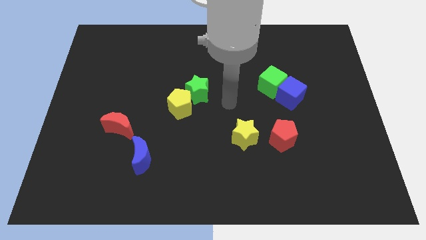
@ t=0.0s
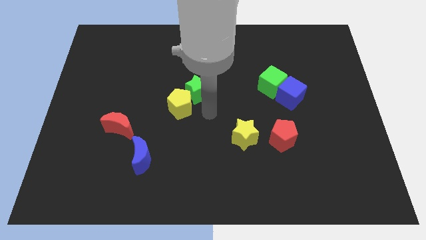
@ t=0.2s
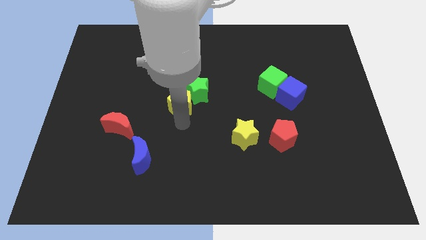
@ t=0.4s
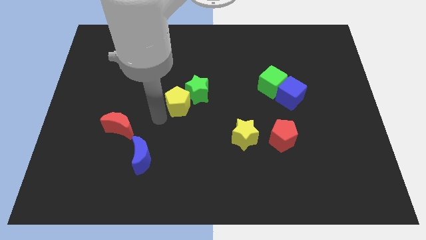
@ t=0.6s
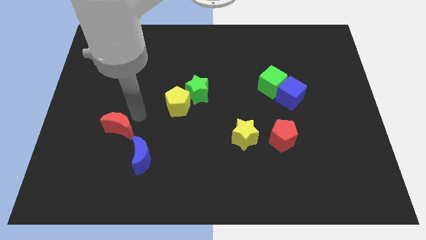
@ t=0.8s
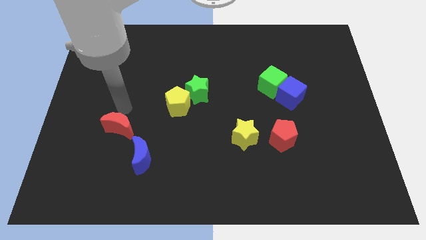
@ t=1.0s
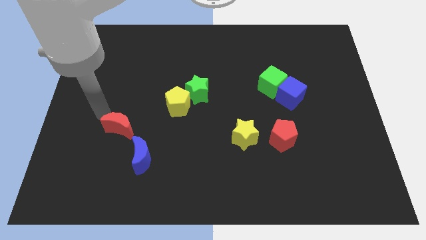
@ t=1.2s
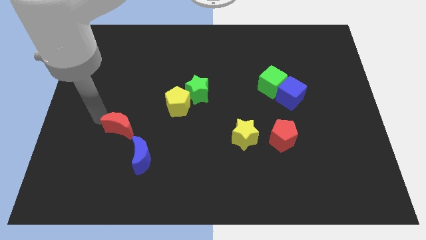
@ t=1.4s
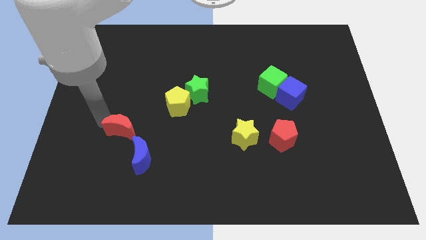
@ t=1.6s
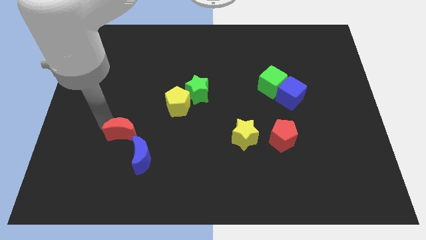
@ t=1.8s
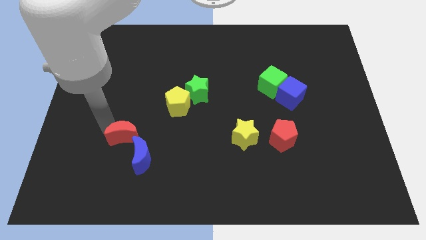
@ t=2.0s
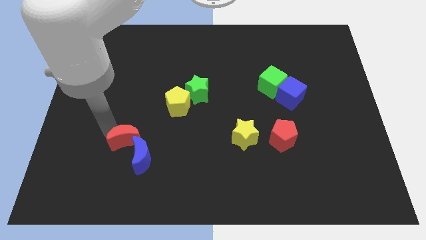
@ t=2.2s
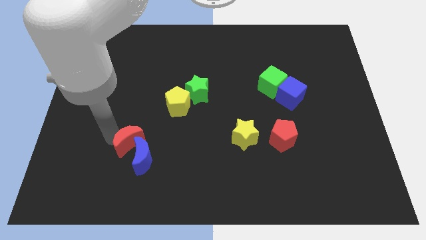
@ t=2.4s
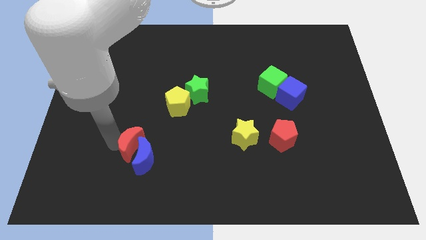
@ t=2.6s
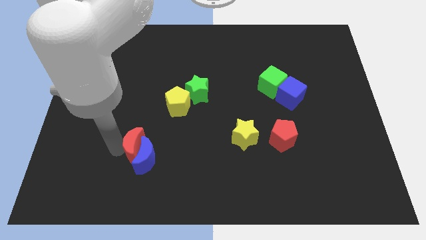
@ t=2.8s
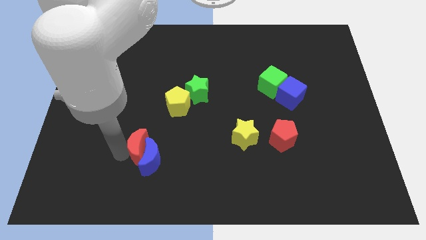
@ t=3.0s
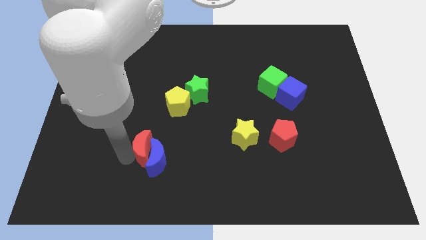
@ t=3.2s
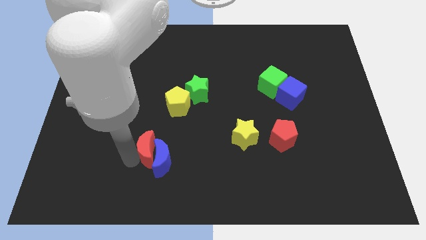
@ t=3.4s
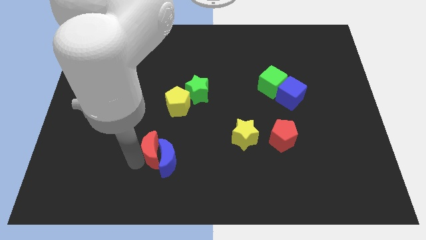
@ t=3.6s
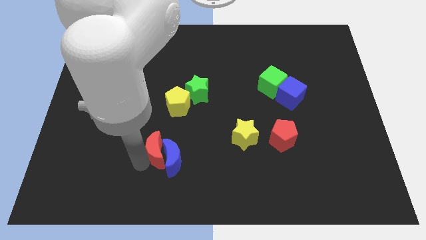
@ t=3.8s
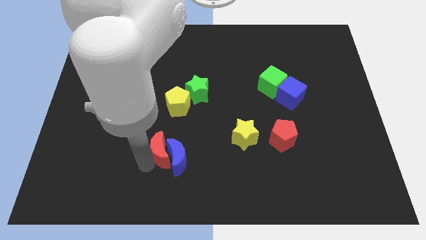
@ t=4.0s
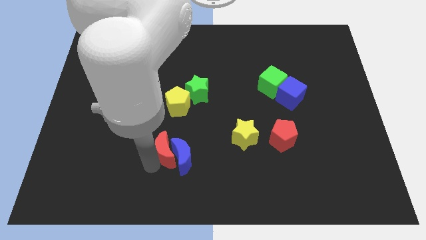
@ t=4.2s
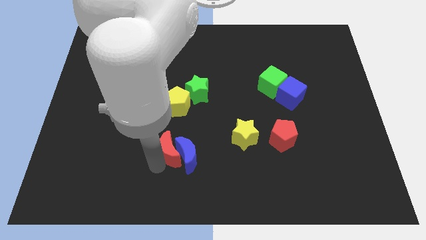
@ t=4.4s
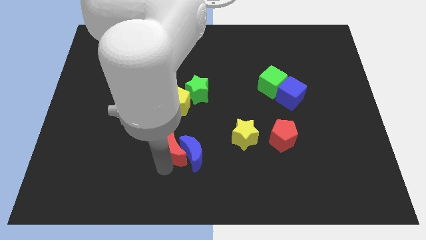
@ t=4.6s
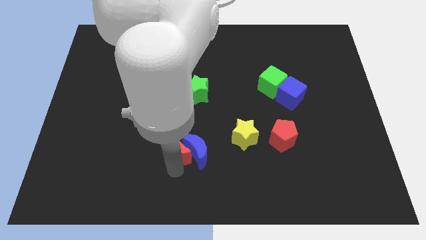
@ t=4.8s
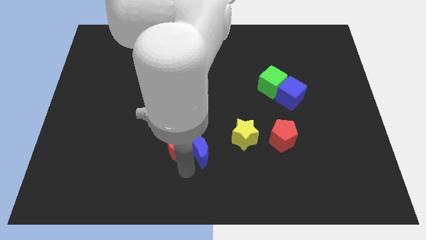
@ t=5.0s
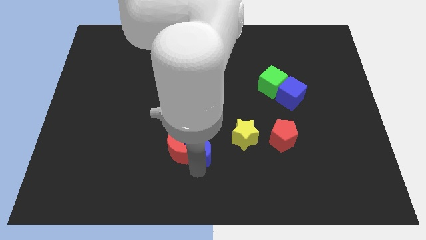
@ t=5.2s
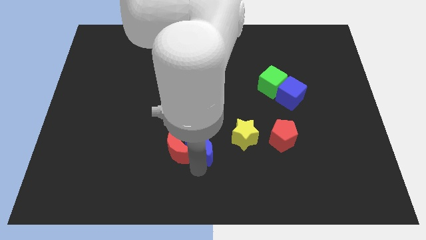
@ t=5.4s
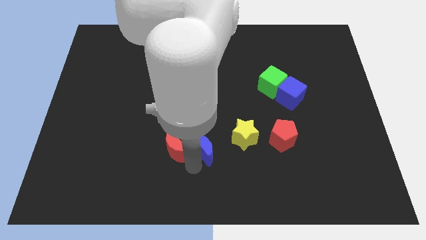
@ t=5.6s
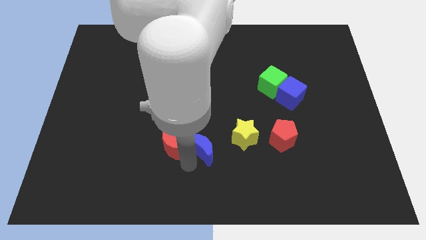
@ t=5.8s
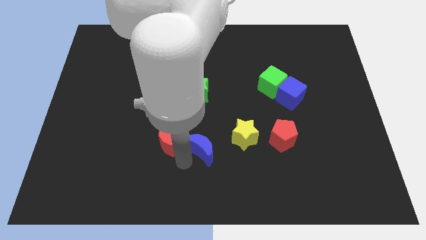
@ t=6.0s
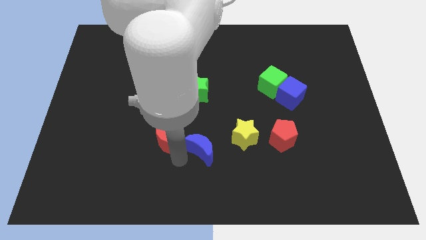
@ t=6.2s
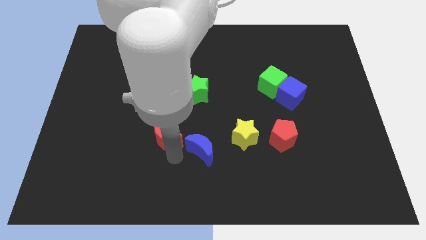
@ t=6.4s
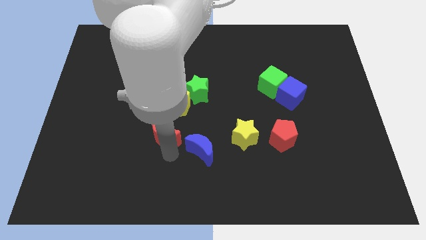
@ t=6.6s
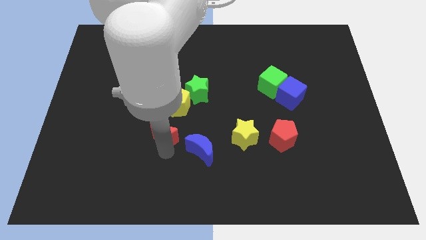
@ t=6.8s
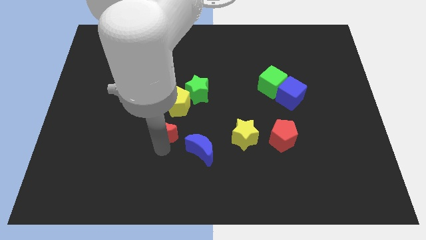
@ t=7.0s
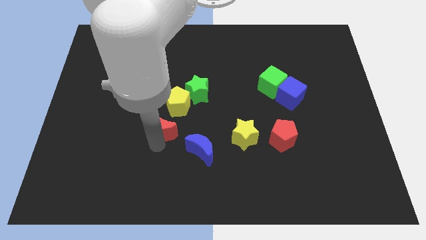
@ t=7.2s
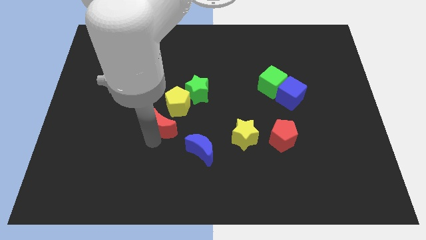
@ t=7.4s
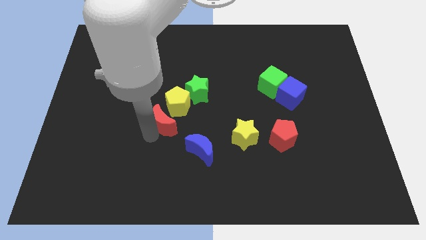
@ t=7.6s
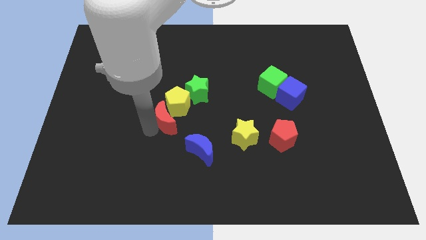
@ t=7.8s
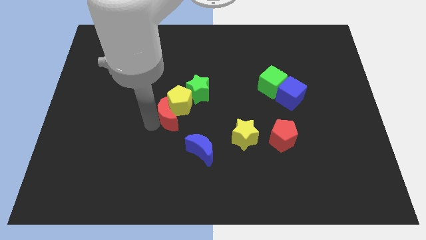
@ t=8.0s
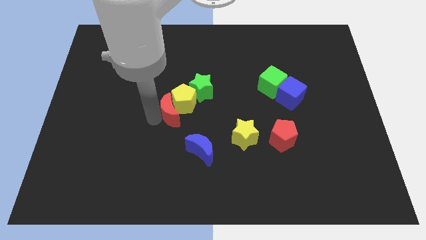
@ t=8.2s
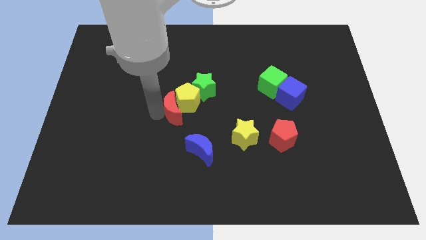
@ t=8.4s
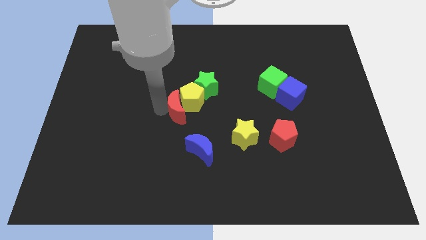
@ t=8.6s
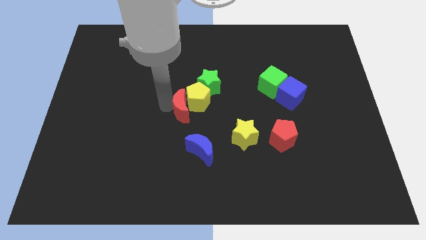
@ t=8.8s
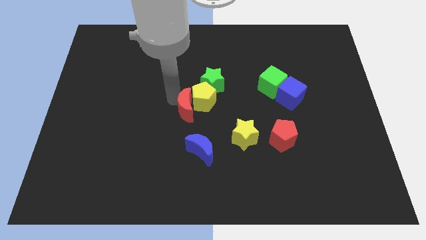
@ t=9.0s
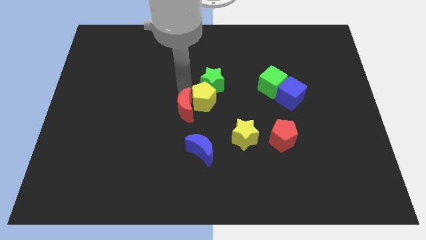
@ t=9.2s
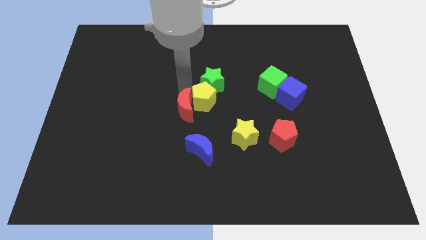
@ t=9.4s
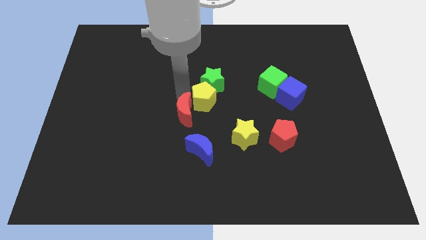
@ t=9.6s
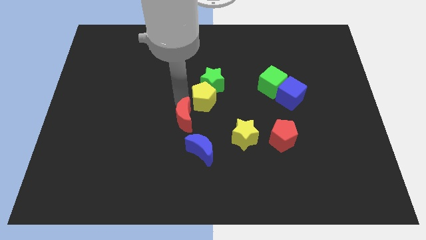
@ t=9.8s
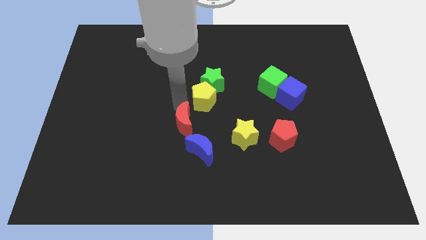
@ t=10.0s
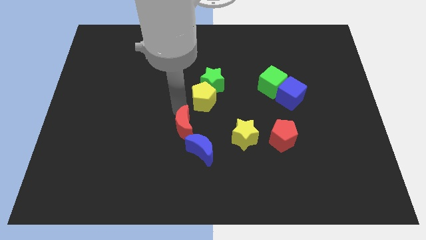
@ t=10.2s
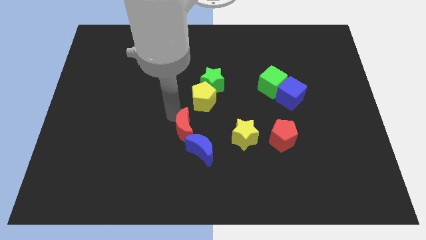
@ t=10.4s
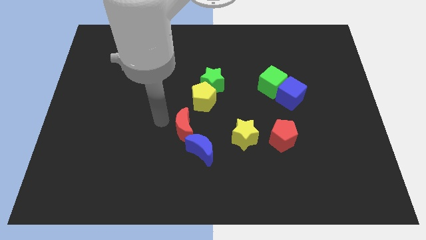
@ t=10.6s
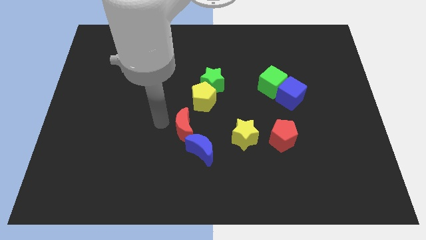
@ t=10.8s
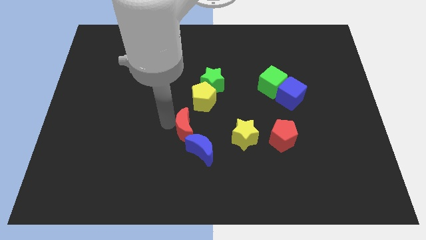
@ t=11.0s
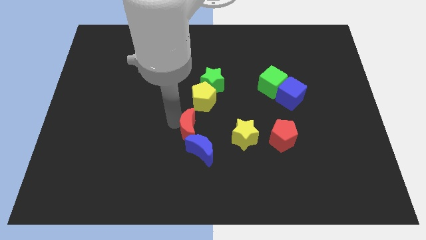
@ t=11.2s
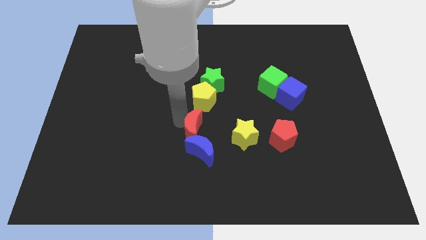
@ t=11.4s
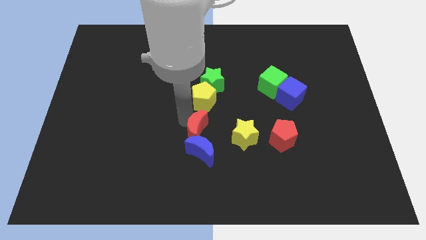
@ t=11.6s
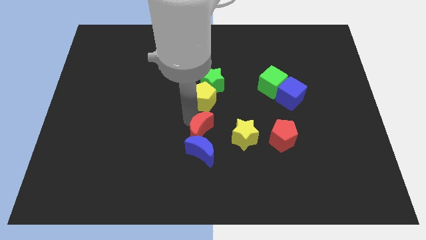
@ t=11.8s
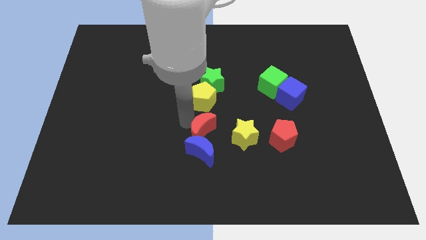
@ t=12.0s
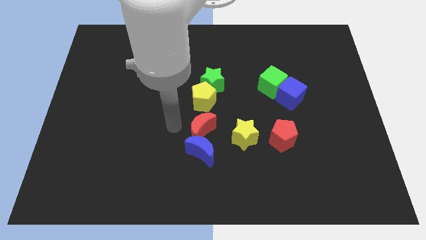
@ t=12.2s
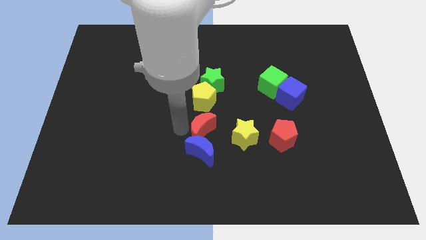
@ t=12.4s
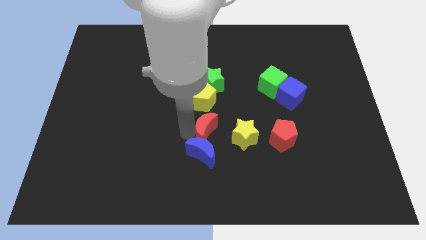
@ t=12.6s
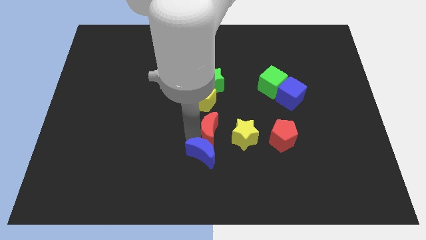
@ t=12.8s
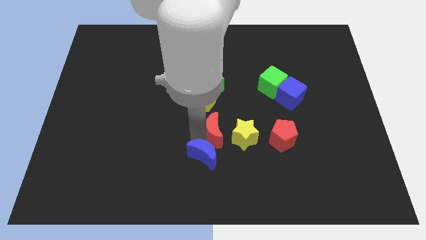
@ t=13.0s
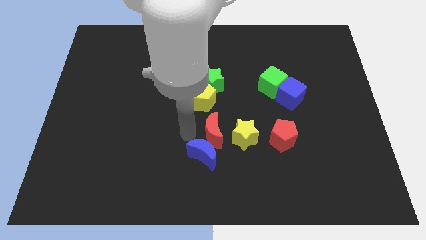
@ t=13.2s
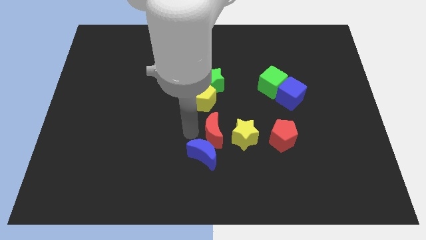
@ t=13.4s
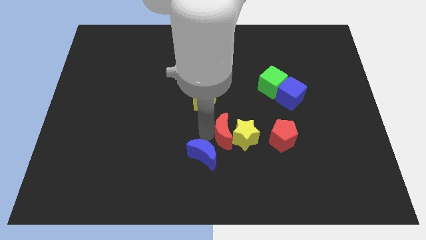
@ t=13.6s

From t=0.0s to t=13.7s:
put the red moon close to the yellow star
